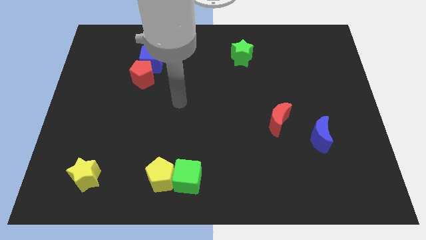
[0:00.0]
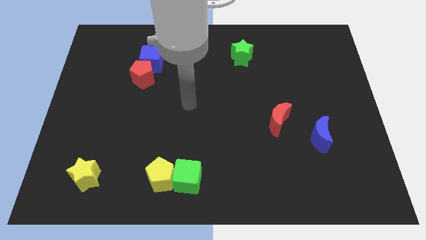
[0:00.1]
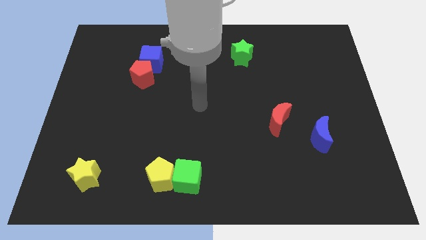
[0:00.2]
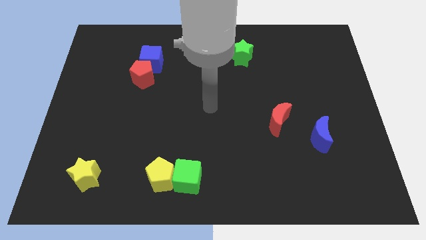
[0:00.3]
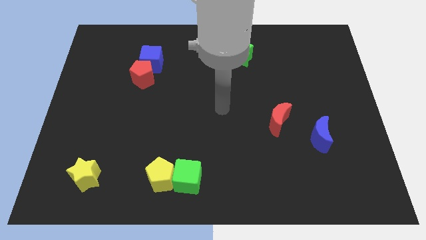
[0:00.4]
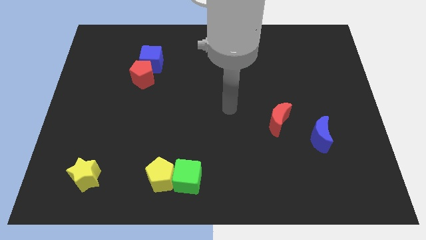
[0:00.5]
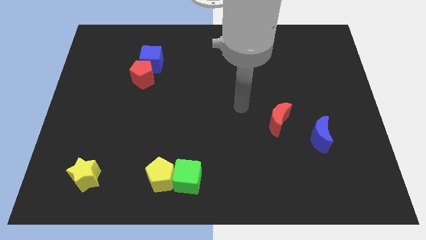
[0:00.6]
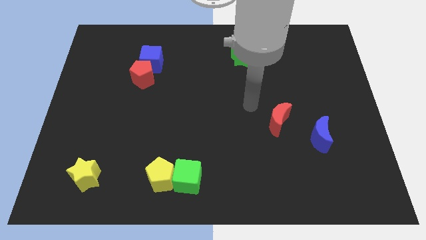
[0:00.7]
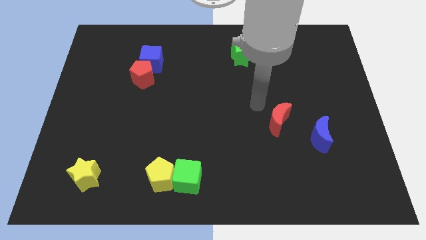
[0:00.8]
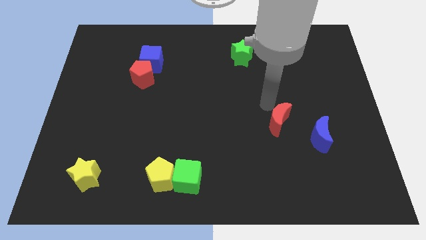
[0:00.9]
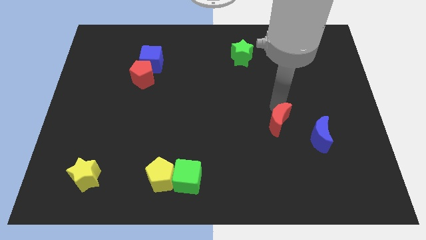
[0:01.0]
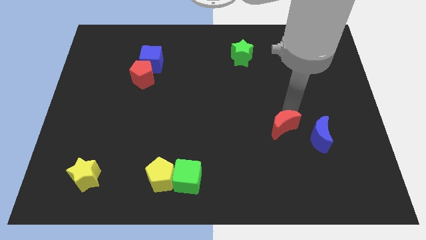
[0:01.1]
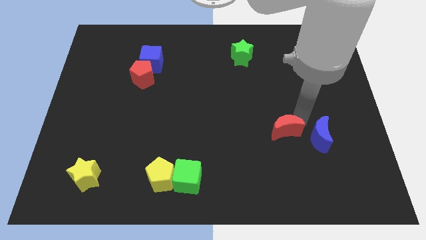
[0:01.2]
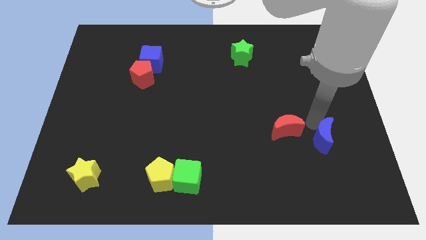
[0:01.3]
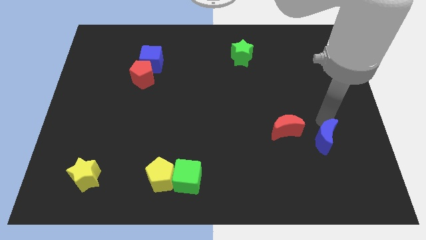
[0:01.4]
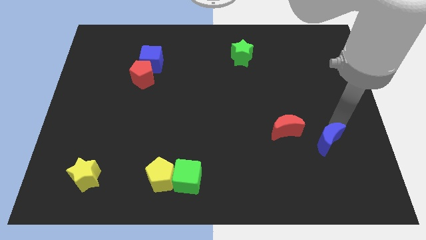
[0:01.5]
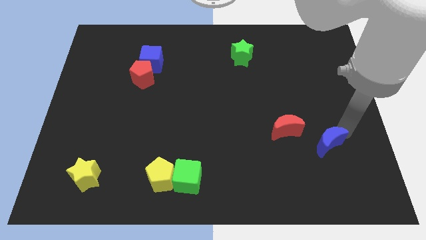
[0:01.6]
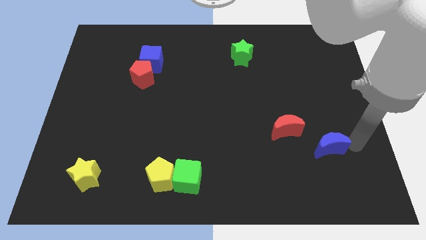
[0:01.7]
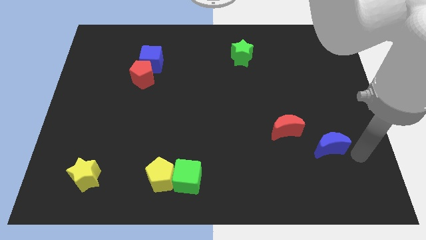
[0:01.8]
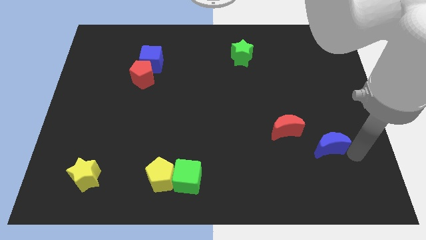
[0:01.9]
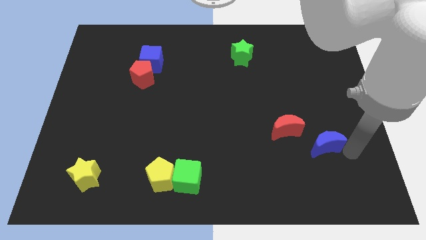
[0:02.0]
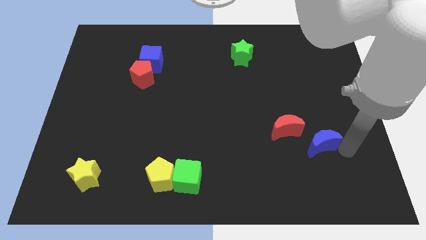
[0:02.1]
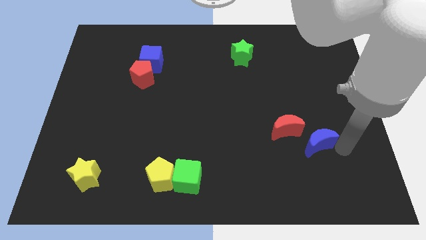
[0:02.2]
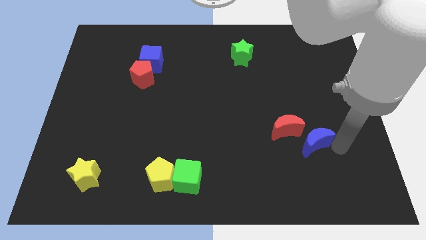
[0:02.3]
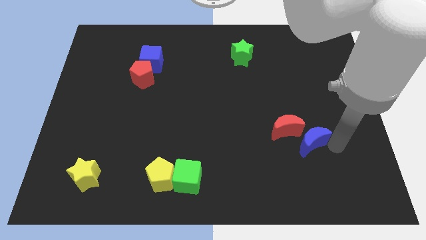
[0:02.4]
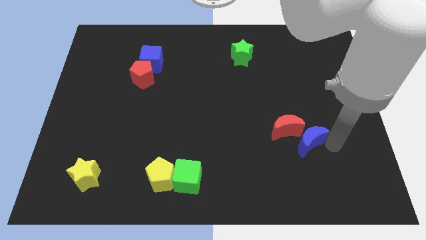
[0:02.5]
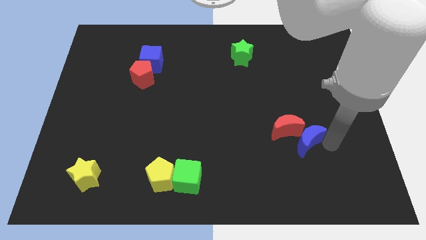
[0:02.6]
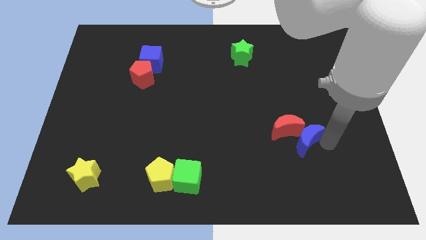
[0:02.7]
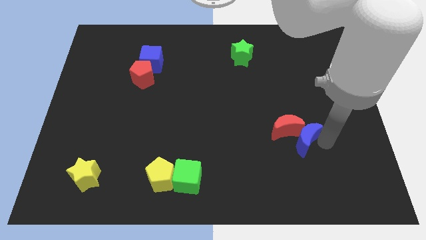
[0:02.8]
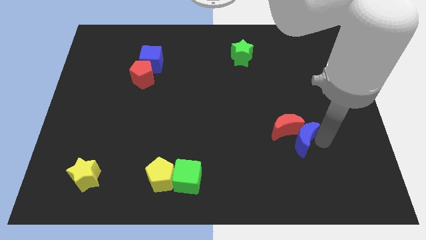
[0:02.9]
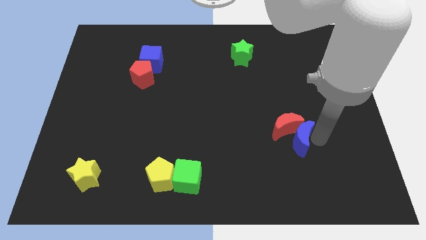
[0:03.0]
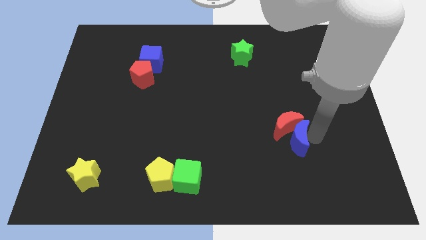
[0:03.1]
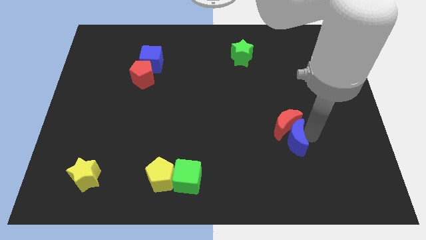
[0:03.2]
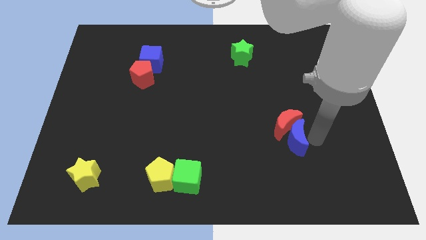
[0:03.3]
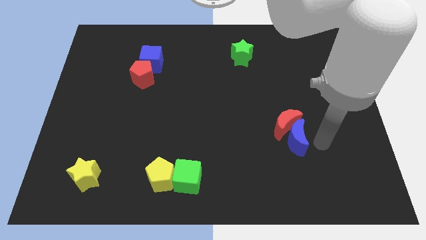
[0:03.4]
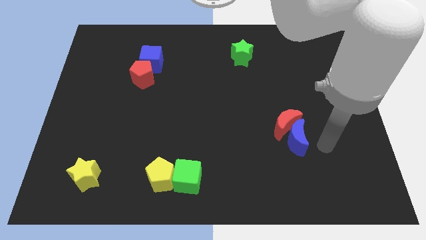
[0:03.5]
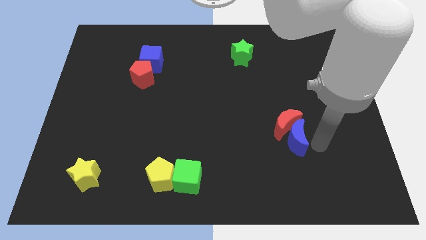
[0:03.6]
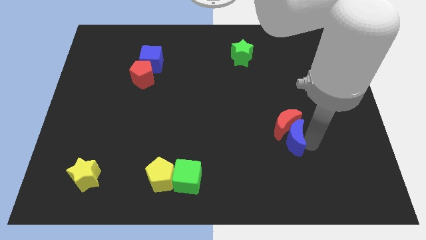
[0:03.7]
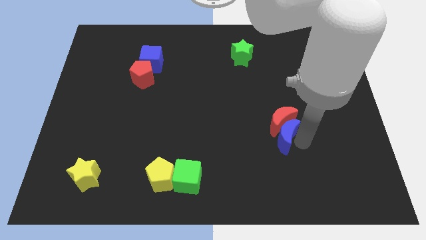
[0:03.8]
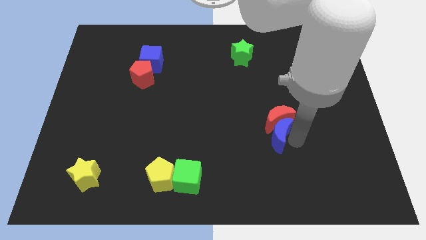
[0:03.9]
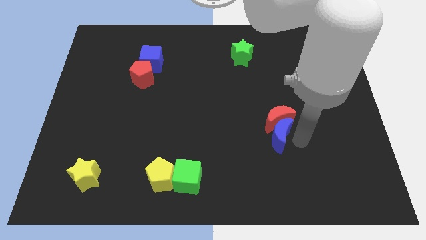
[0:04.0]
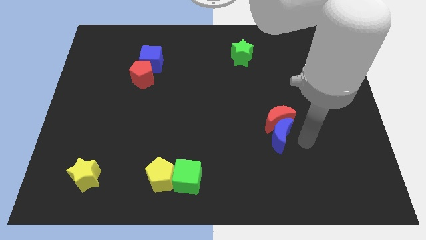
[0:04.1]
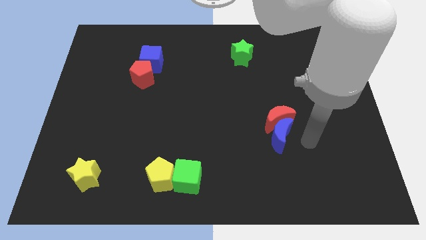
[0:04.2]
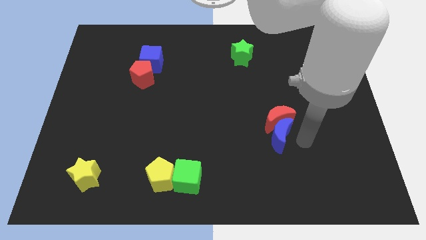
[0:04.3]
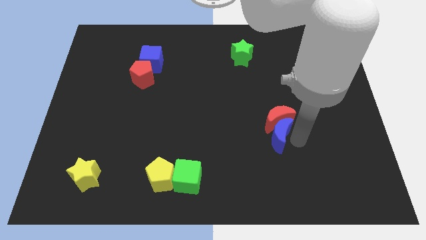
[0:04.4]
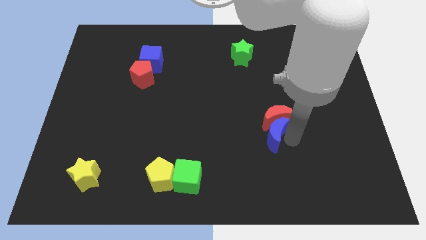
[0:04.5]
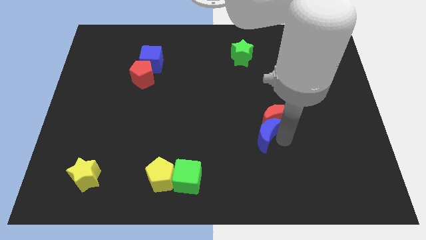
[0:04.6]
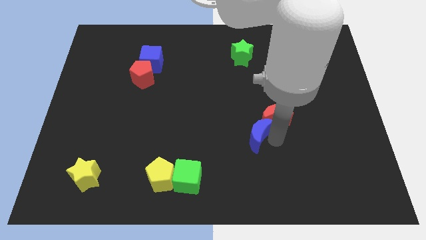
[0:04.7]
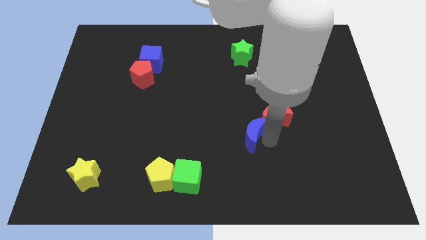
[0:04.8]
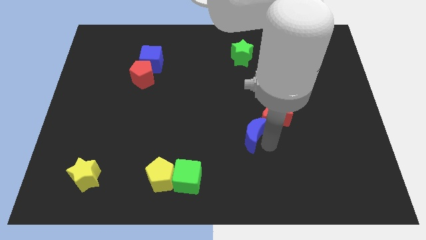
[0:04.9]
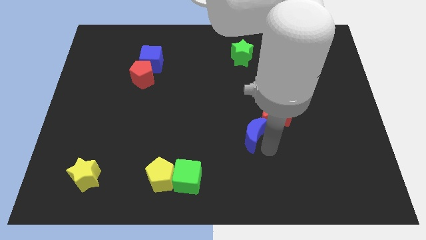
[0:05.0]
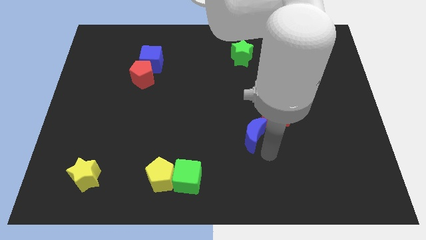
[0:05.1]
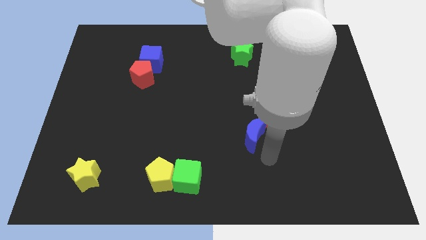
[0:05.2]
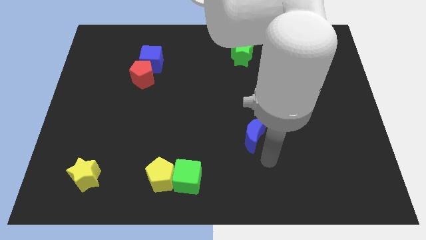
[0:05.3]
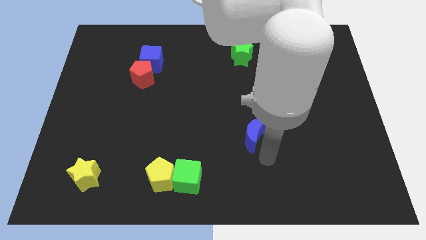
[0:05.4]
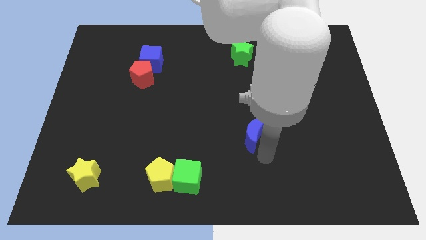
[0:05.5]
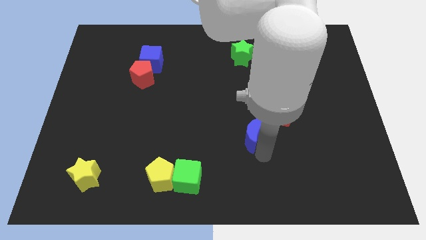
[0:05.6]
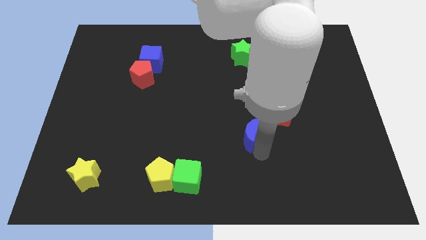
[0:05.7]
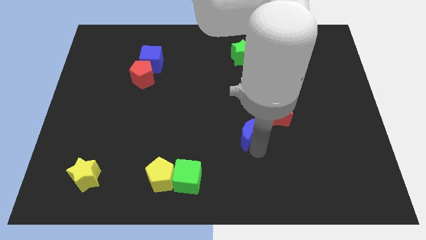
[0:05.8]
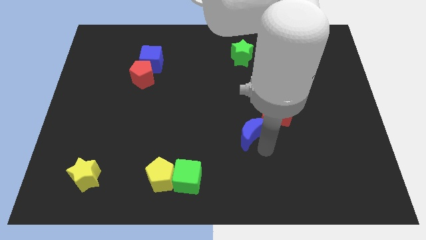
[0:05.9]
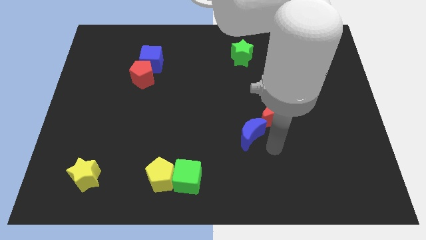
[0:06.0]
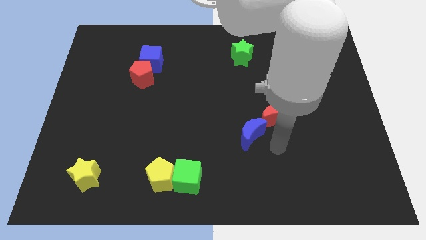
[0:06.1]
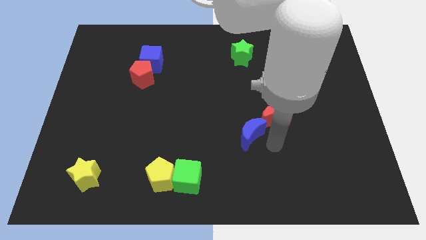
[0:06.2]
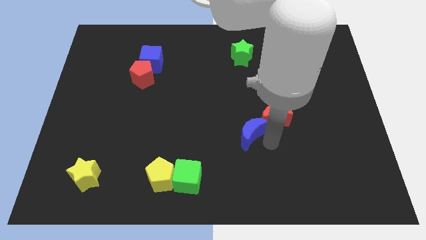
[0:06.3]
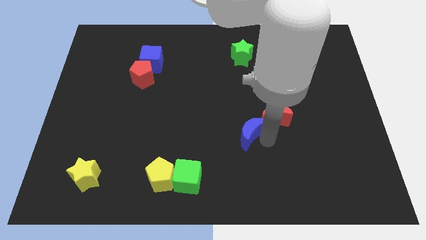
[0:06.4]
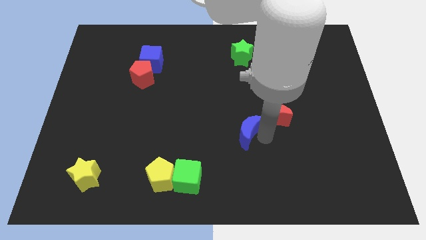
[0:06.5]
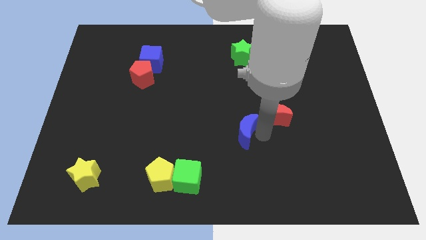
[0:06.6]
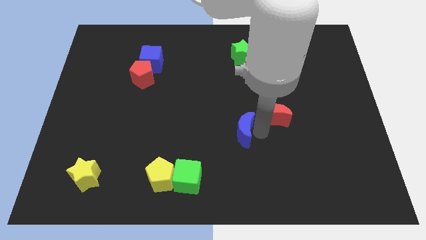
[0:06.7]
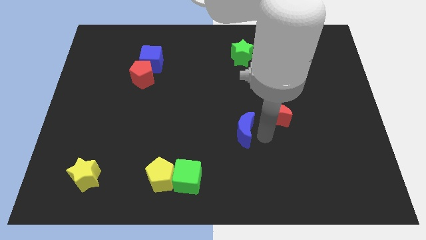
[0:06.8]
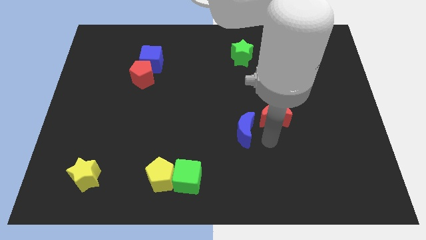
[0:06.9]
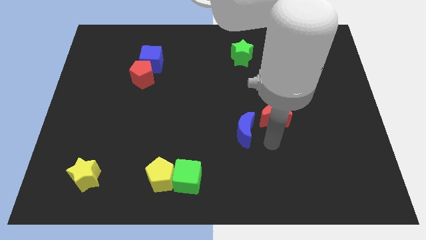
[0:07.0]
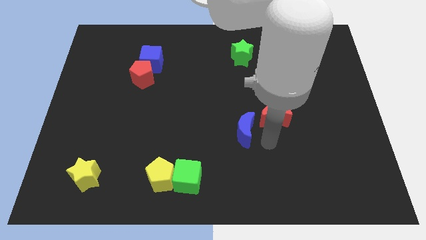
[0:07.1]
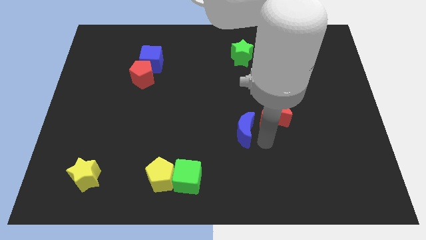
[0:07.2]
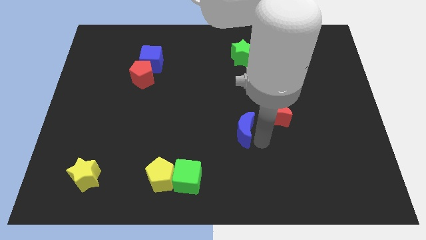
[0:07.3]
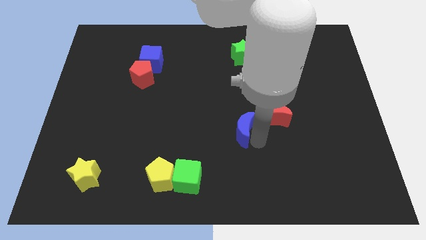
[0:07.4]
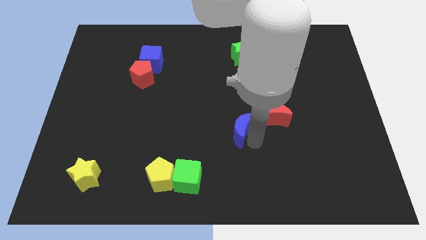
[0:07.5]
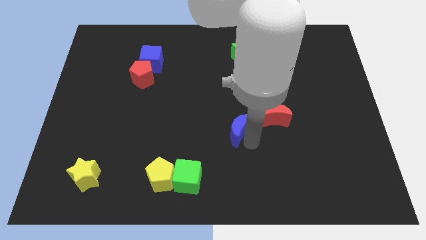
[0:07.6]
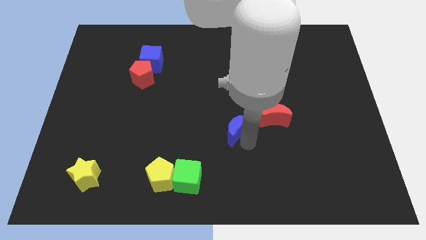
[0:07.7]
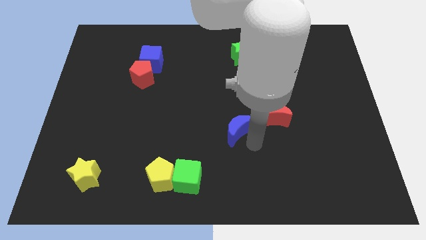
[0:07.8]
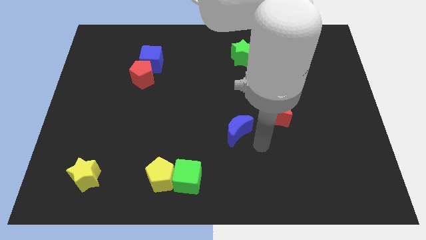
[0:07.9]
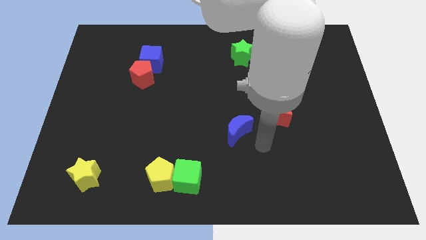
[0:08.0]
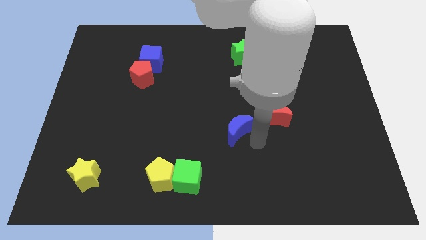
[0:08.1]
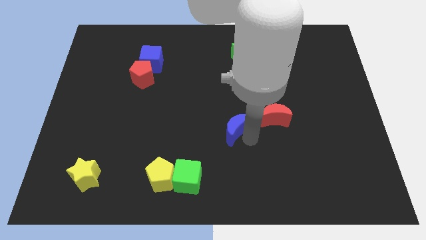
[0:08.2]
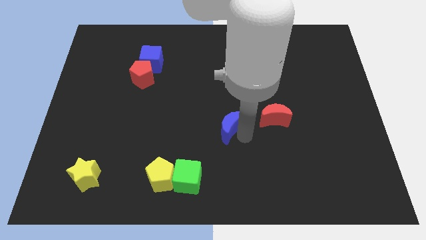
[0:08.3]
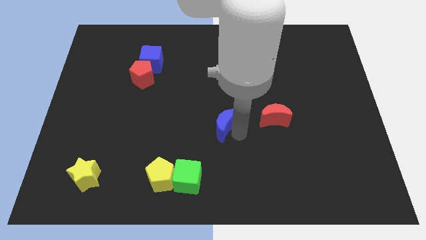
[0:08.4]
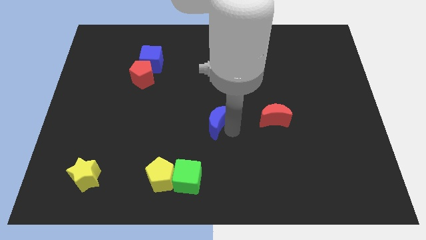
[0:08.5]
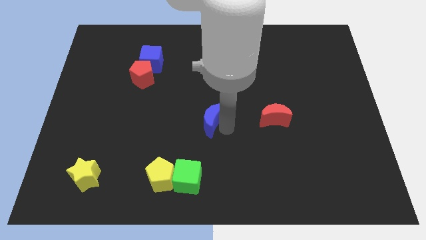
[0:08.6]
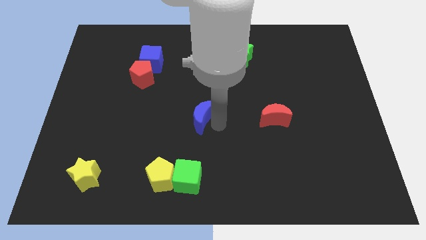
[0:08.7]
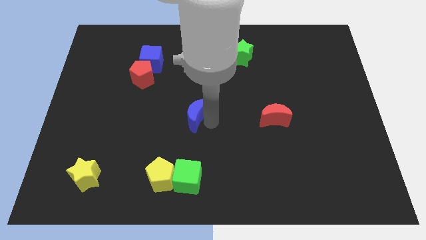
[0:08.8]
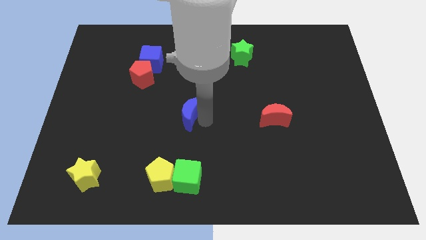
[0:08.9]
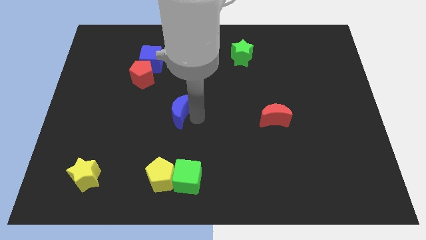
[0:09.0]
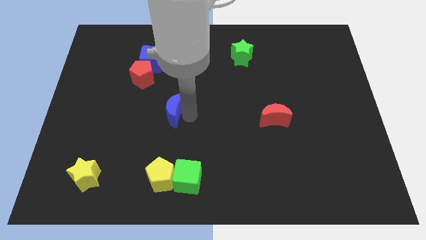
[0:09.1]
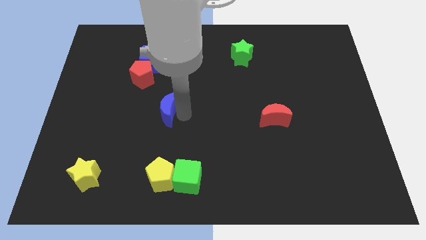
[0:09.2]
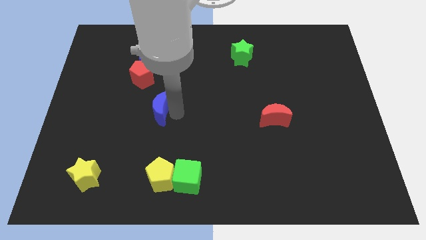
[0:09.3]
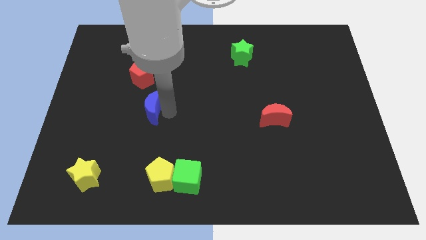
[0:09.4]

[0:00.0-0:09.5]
push the blue moon to the bottom side of the red pentagon
